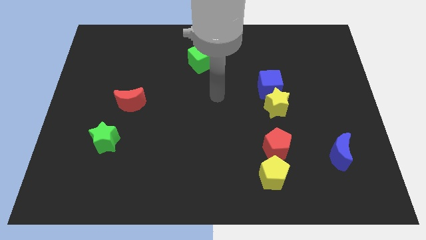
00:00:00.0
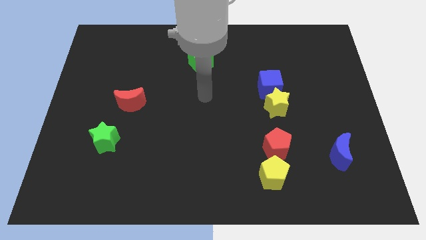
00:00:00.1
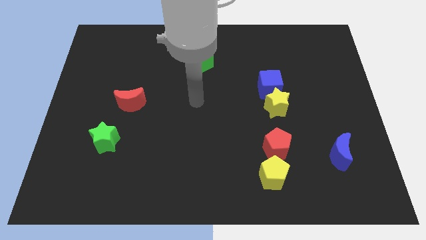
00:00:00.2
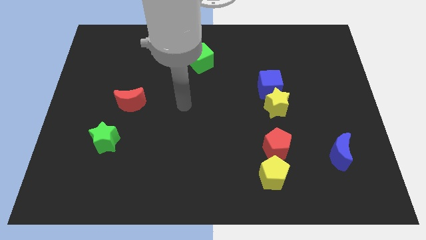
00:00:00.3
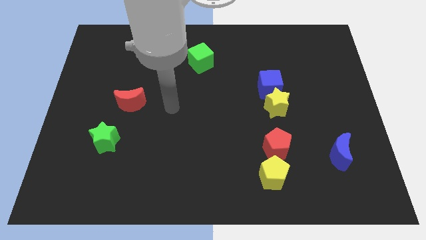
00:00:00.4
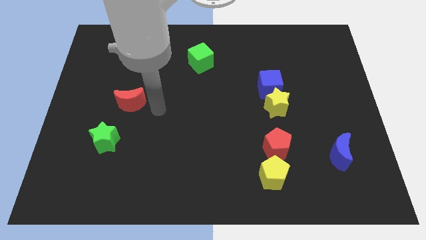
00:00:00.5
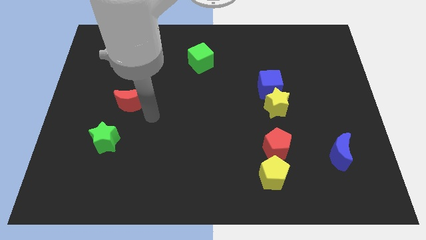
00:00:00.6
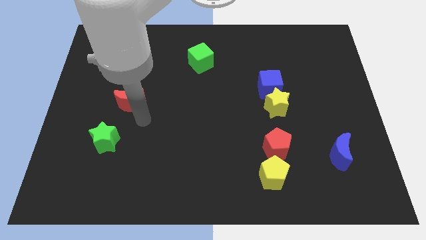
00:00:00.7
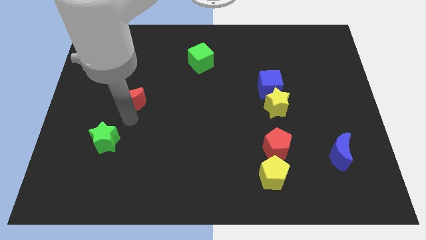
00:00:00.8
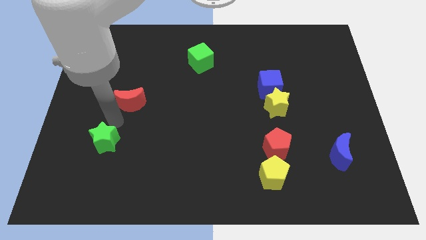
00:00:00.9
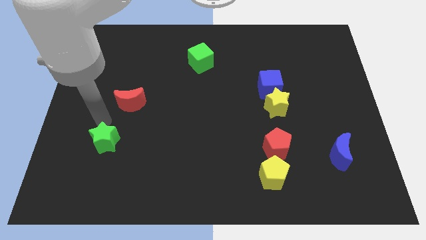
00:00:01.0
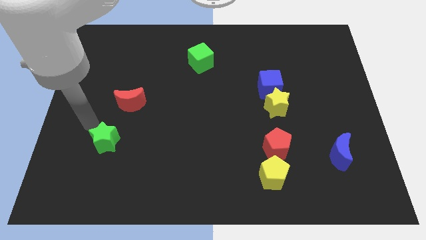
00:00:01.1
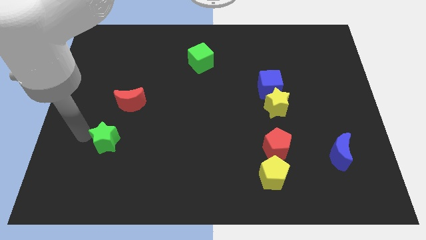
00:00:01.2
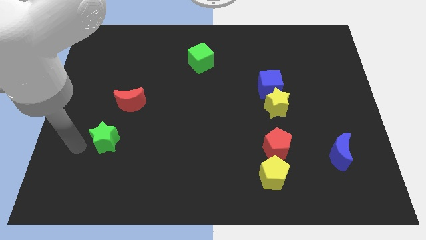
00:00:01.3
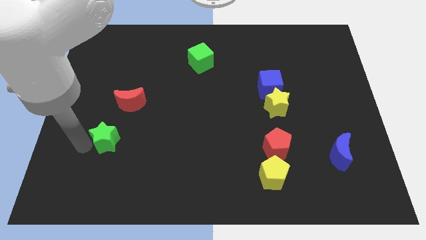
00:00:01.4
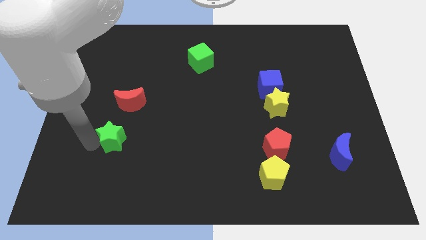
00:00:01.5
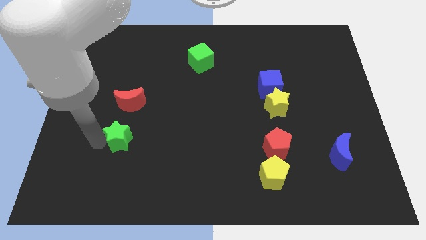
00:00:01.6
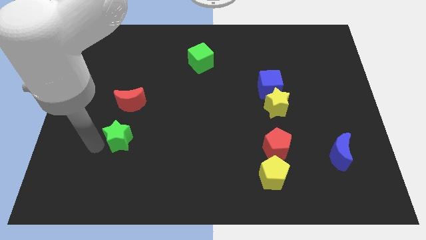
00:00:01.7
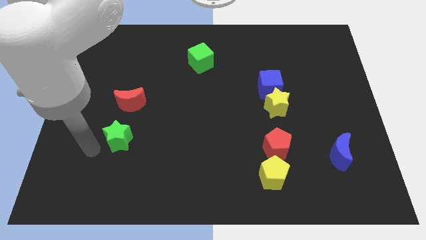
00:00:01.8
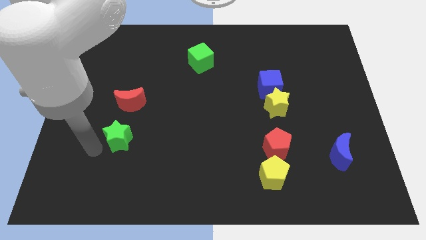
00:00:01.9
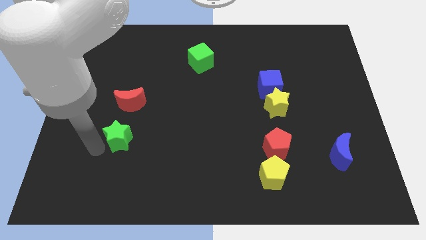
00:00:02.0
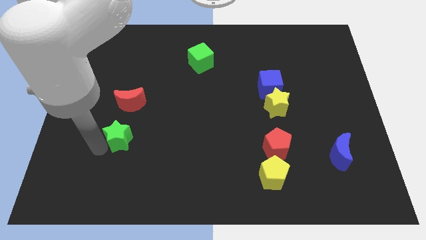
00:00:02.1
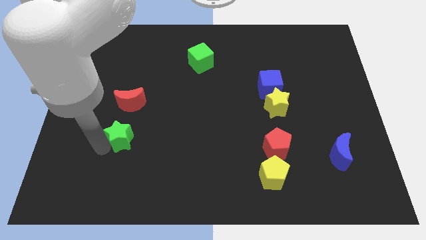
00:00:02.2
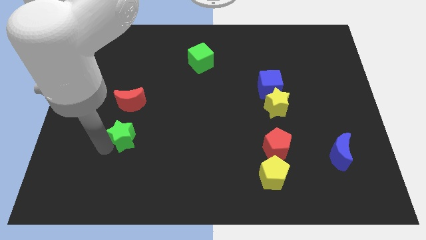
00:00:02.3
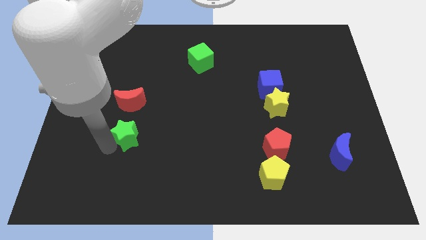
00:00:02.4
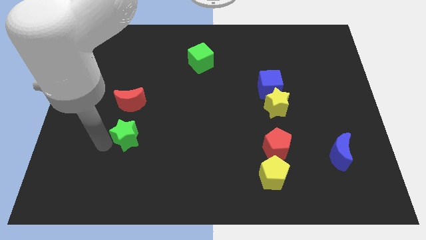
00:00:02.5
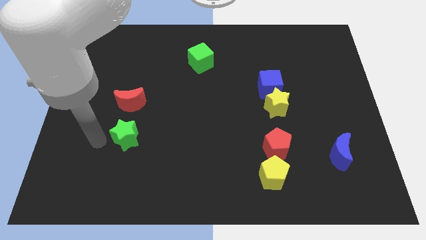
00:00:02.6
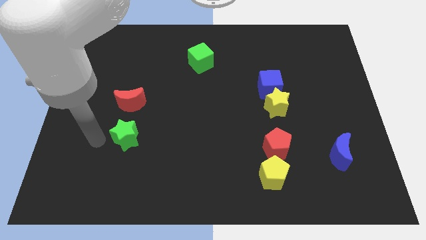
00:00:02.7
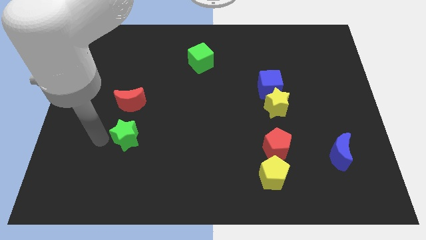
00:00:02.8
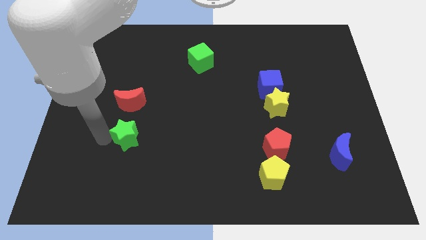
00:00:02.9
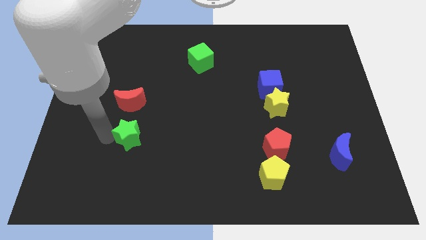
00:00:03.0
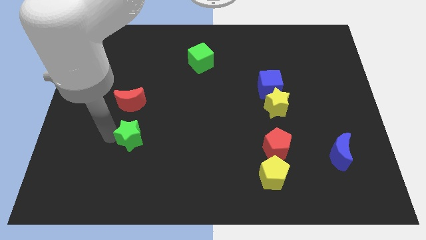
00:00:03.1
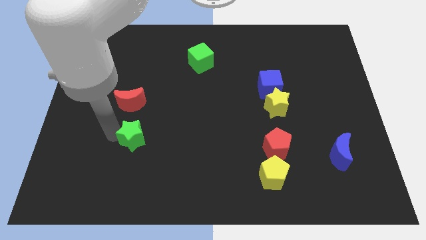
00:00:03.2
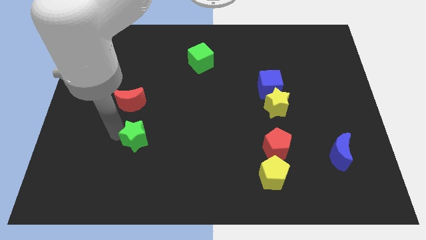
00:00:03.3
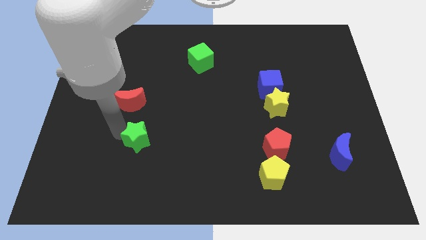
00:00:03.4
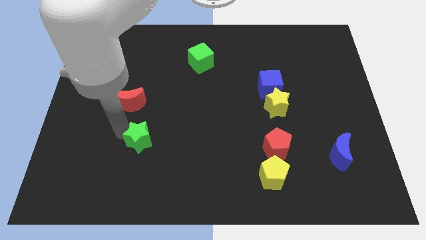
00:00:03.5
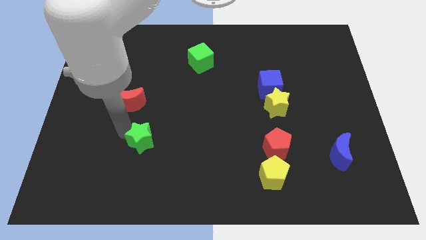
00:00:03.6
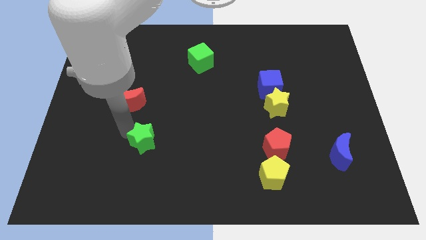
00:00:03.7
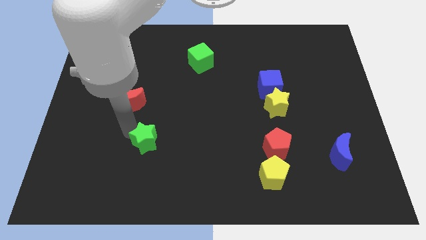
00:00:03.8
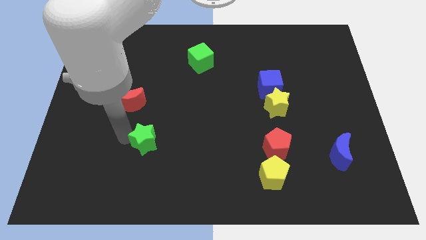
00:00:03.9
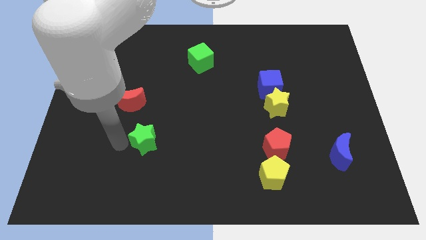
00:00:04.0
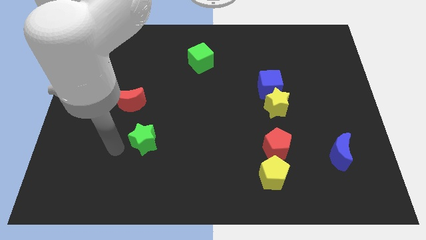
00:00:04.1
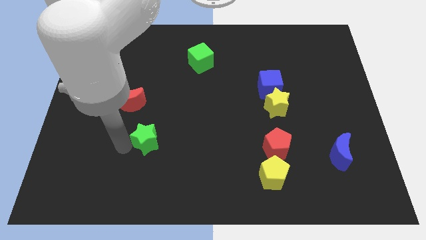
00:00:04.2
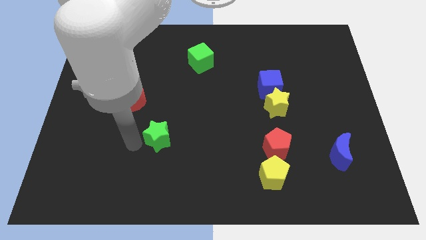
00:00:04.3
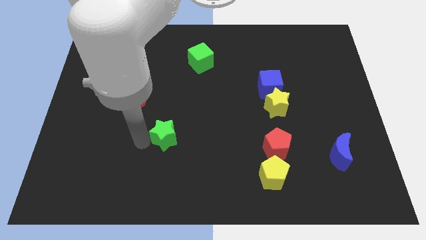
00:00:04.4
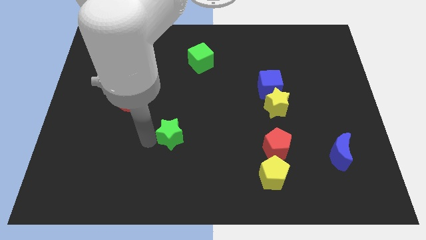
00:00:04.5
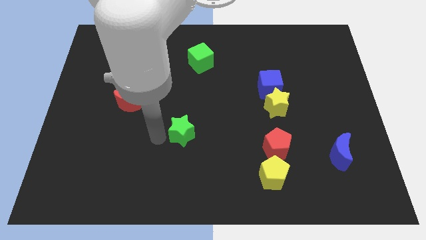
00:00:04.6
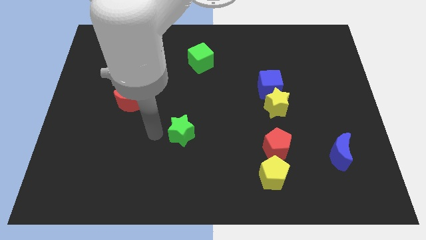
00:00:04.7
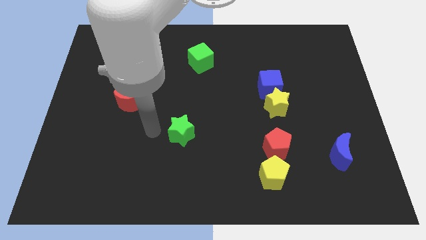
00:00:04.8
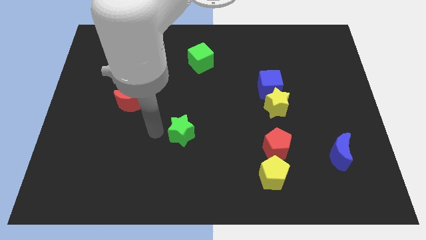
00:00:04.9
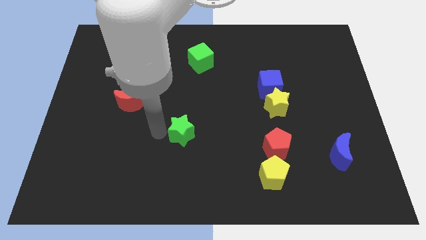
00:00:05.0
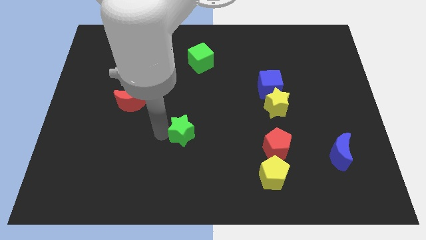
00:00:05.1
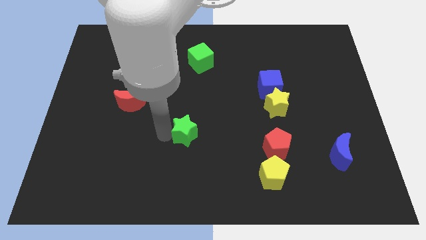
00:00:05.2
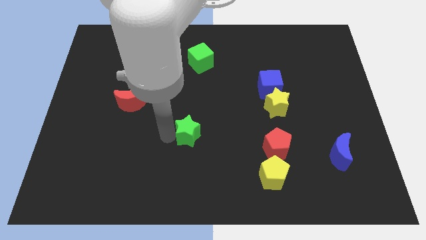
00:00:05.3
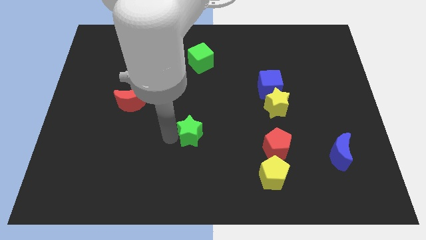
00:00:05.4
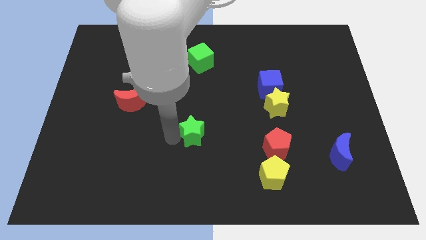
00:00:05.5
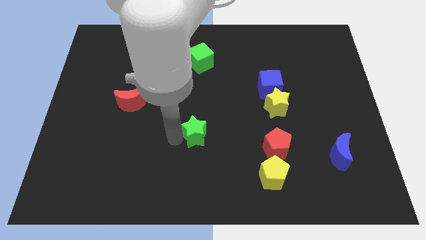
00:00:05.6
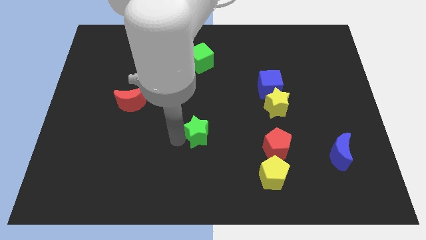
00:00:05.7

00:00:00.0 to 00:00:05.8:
slide the green star right

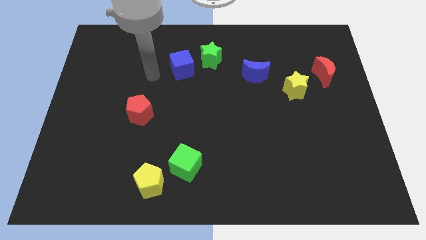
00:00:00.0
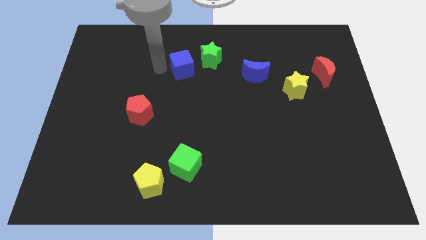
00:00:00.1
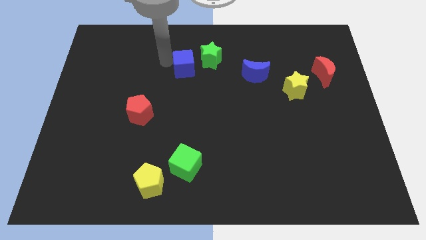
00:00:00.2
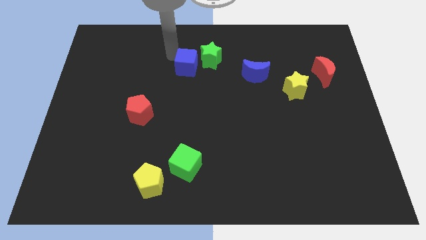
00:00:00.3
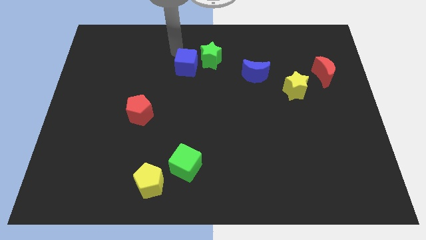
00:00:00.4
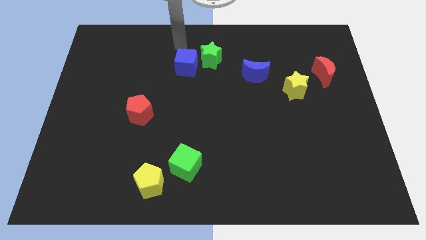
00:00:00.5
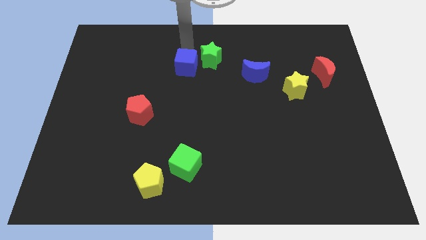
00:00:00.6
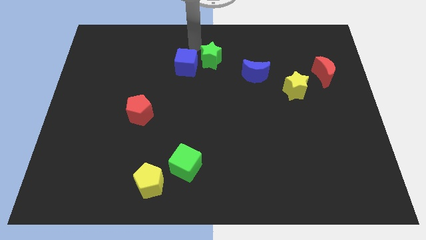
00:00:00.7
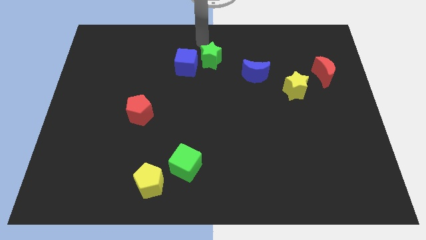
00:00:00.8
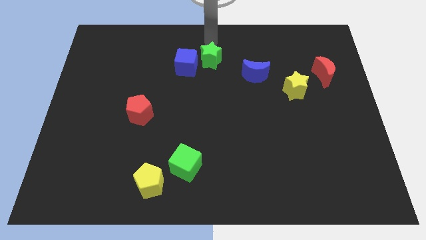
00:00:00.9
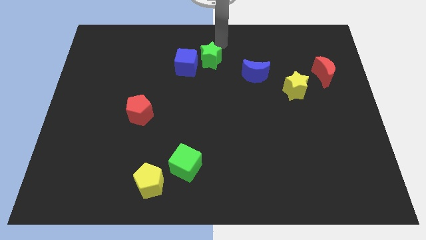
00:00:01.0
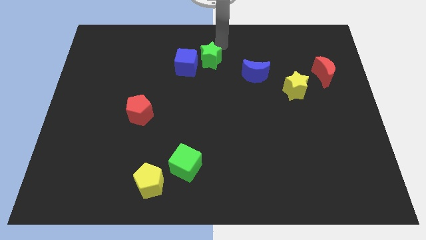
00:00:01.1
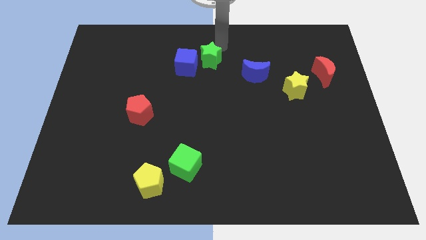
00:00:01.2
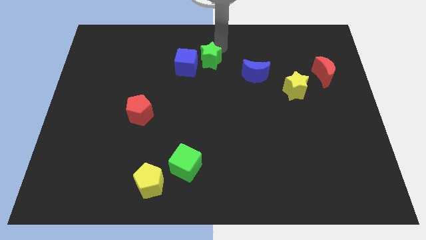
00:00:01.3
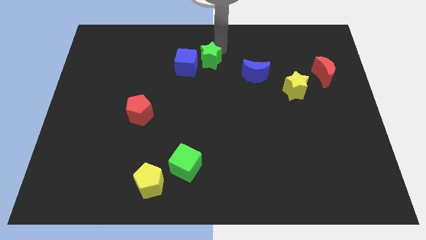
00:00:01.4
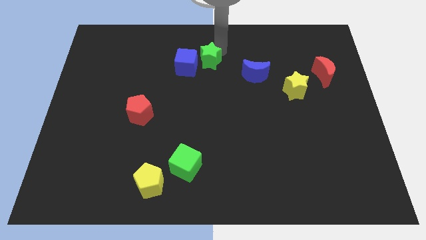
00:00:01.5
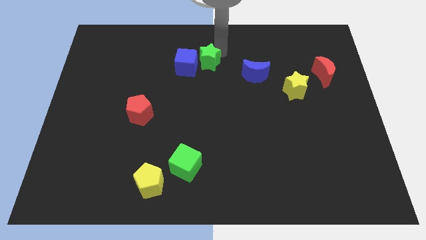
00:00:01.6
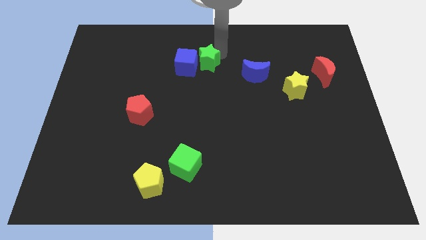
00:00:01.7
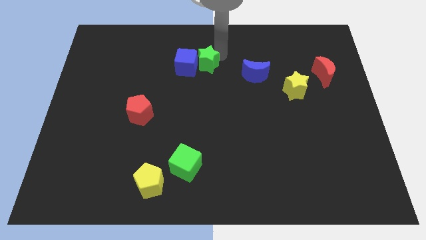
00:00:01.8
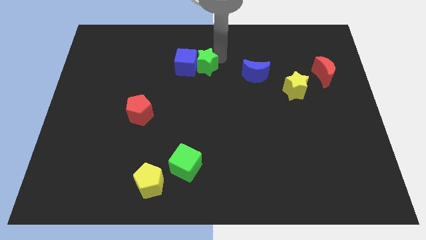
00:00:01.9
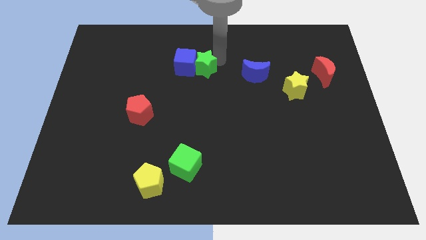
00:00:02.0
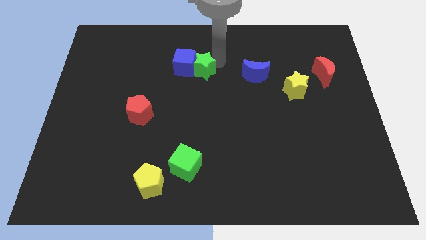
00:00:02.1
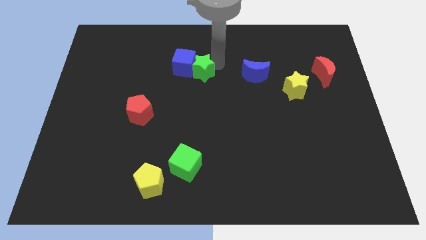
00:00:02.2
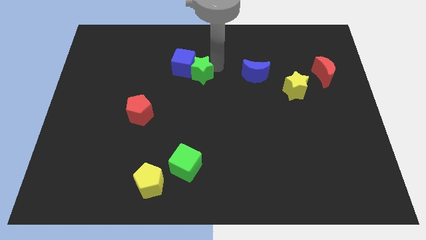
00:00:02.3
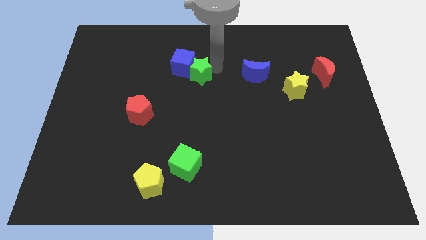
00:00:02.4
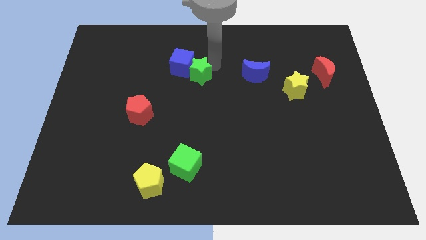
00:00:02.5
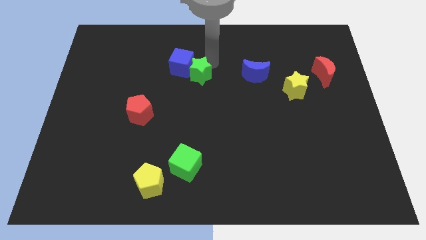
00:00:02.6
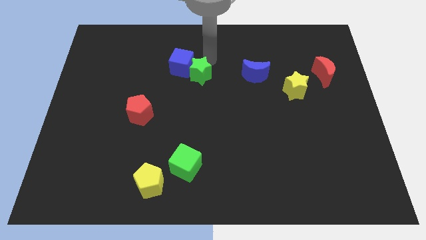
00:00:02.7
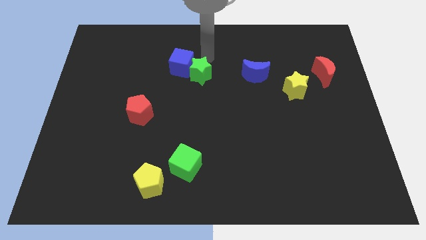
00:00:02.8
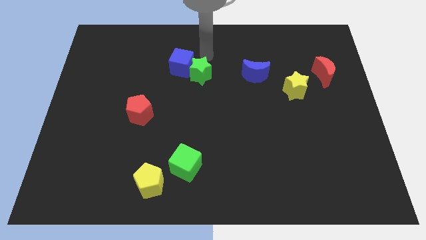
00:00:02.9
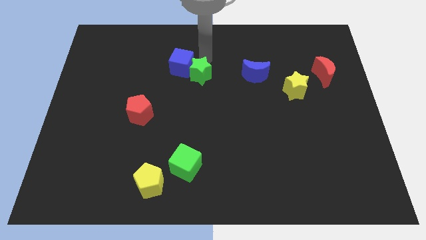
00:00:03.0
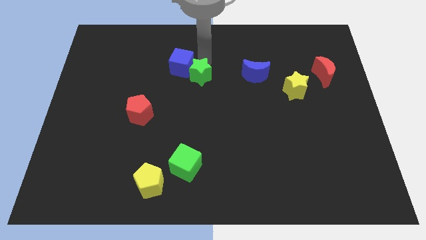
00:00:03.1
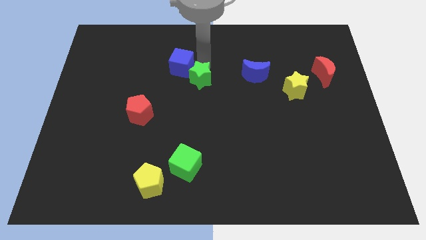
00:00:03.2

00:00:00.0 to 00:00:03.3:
slightly slide the green star downwards
